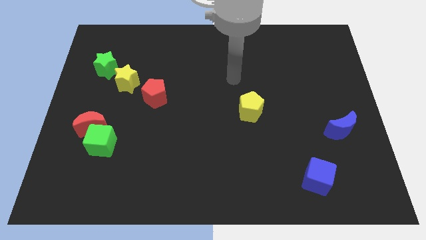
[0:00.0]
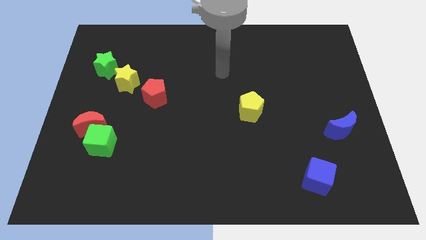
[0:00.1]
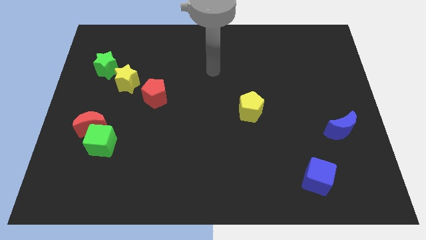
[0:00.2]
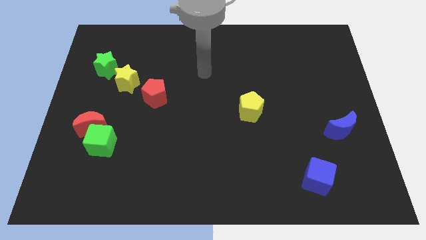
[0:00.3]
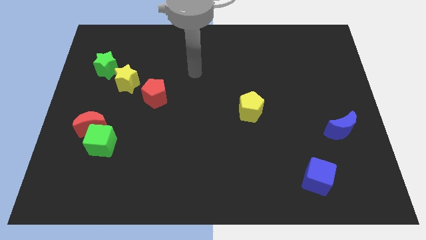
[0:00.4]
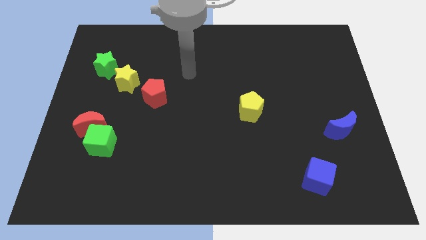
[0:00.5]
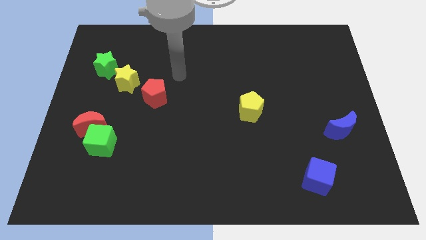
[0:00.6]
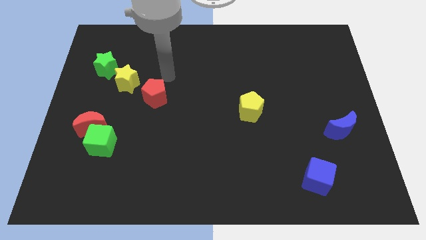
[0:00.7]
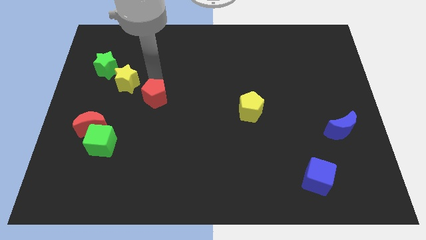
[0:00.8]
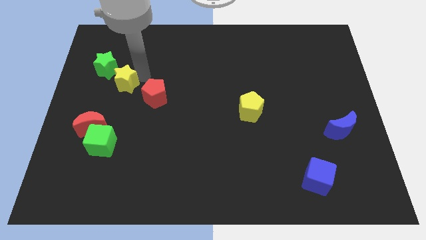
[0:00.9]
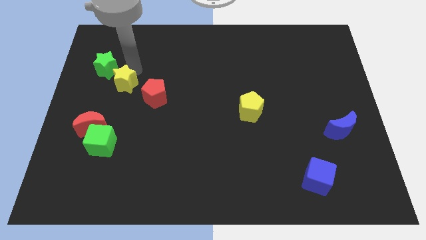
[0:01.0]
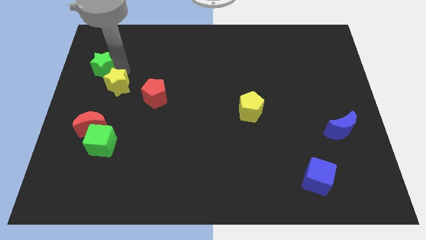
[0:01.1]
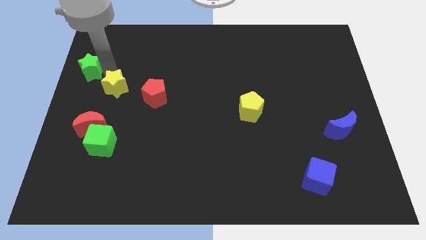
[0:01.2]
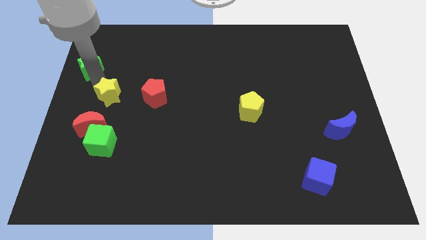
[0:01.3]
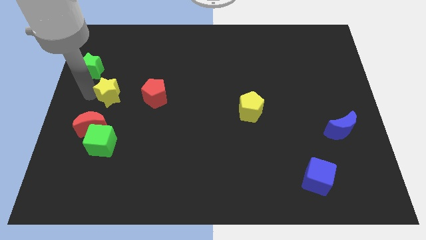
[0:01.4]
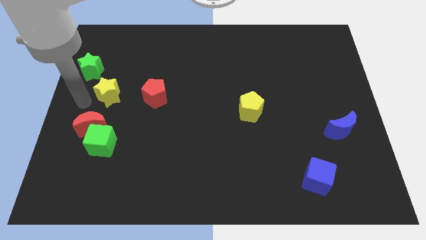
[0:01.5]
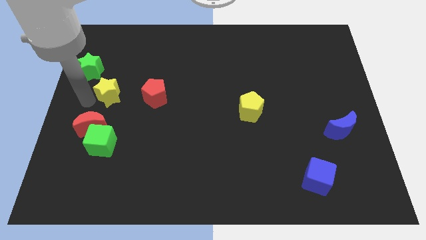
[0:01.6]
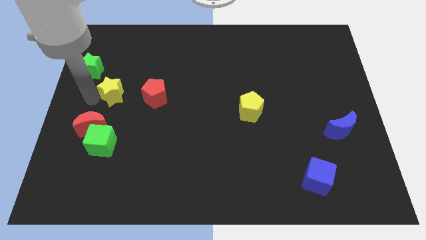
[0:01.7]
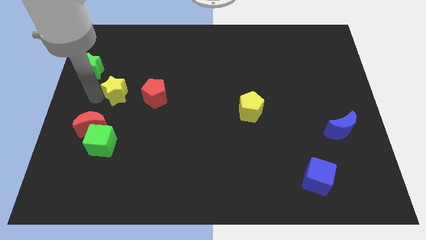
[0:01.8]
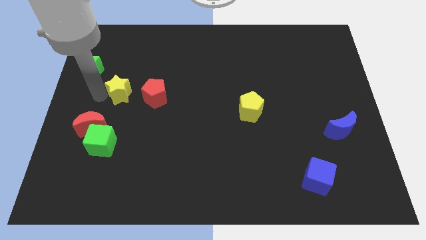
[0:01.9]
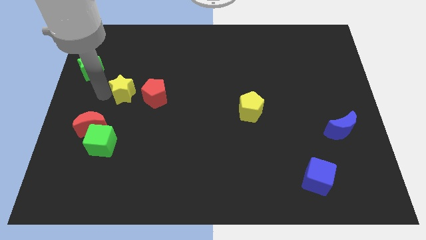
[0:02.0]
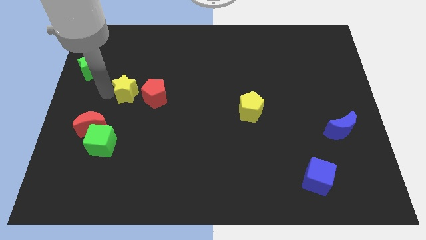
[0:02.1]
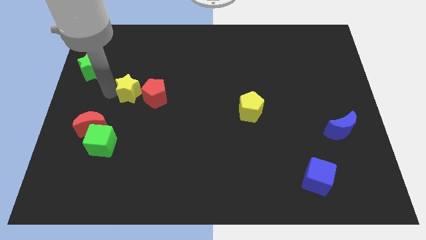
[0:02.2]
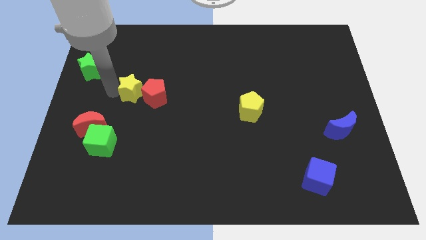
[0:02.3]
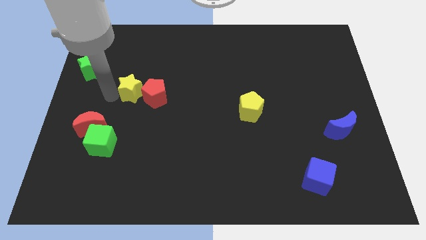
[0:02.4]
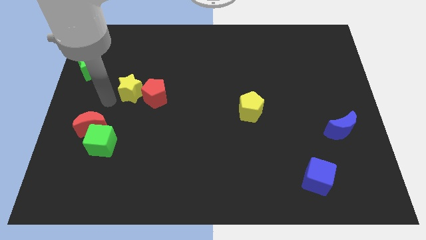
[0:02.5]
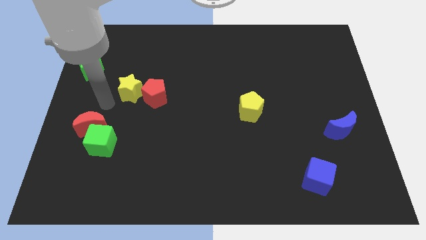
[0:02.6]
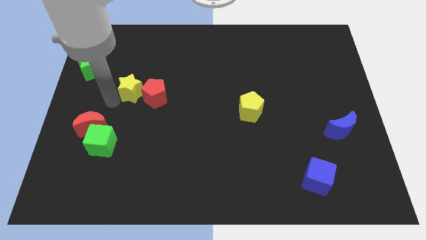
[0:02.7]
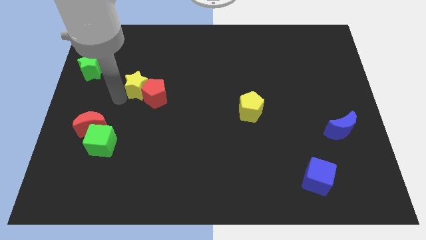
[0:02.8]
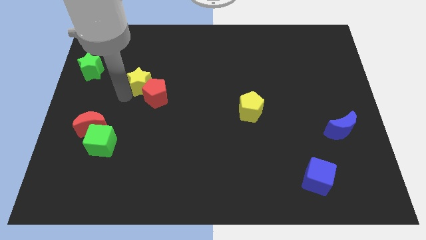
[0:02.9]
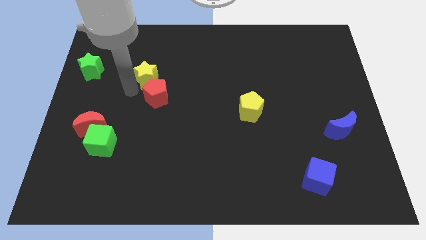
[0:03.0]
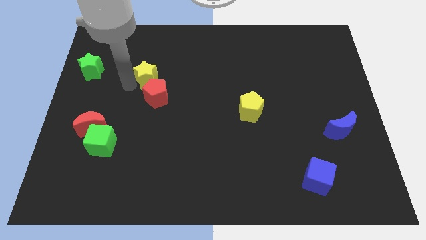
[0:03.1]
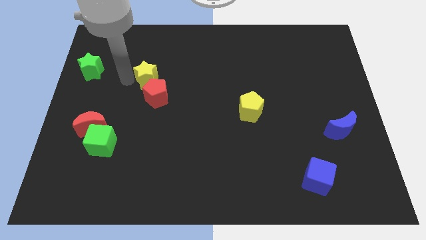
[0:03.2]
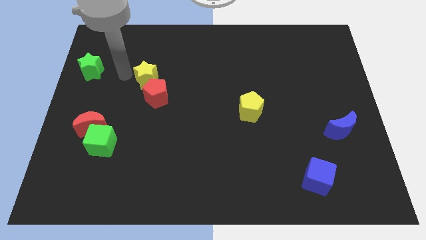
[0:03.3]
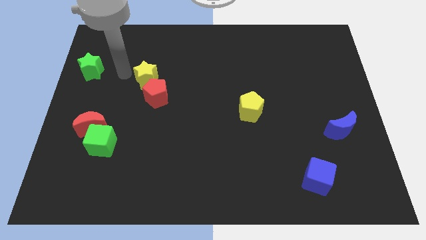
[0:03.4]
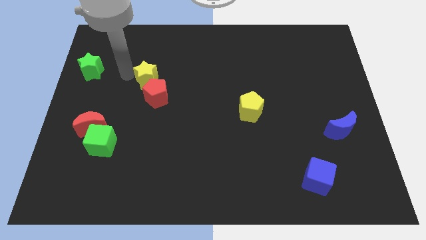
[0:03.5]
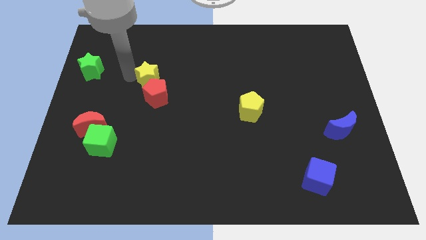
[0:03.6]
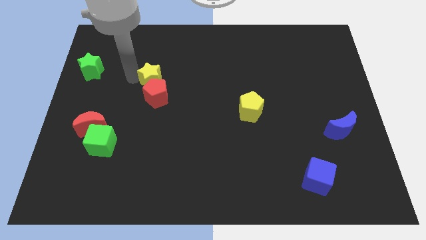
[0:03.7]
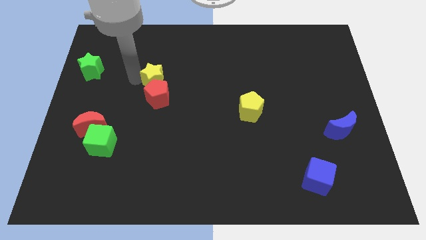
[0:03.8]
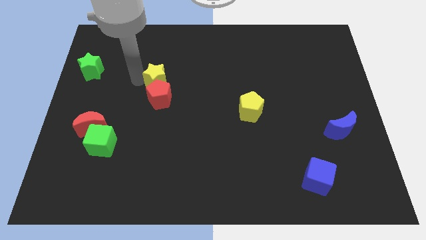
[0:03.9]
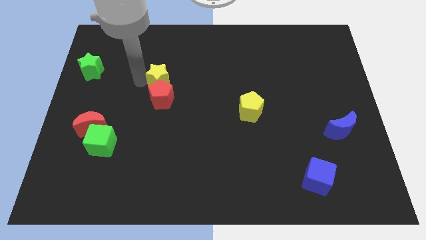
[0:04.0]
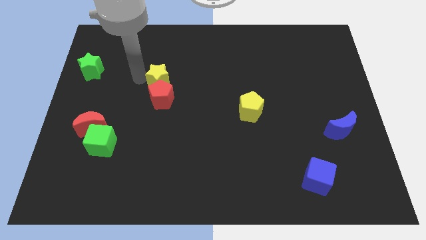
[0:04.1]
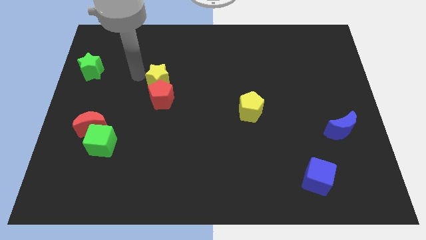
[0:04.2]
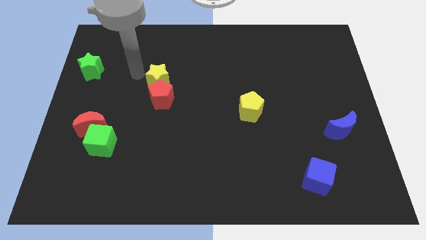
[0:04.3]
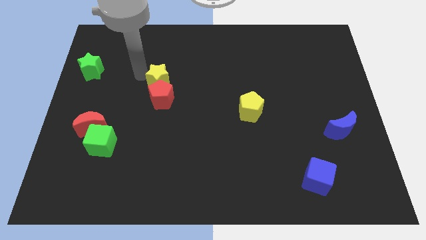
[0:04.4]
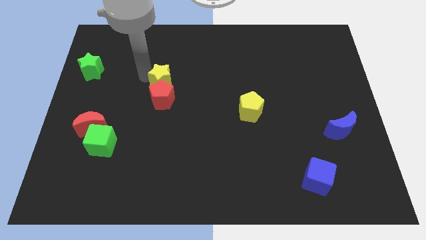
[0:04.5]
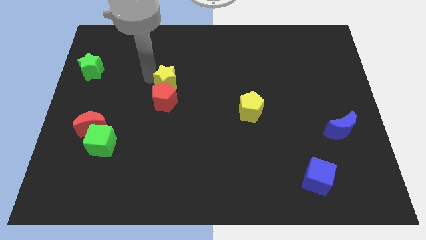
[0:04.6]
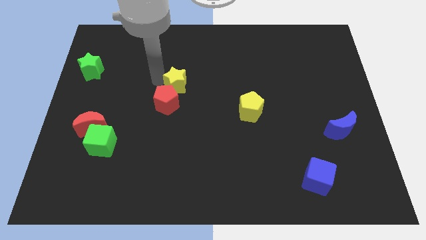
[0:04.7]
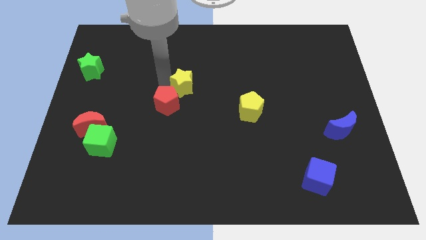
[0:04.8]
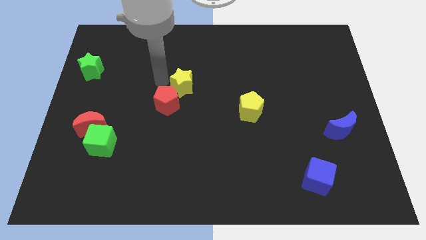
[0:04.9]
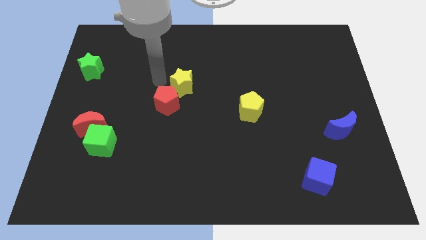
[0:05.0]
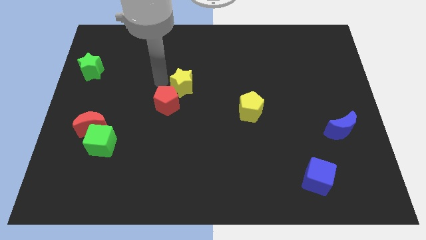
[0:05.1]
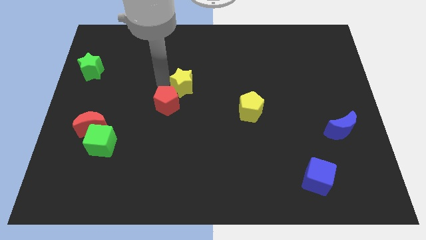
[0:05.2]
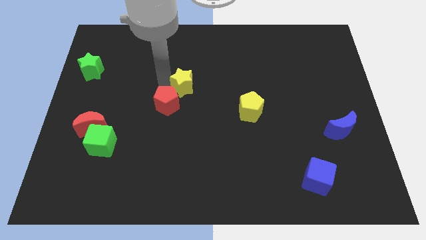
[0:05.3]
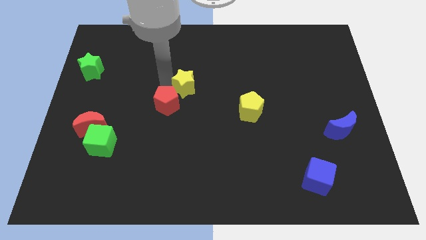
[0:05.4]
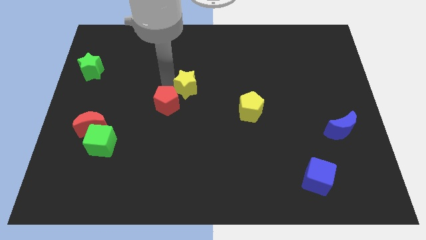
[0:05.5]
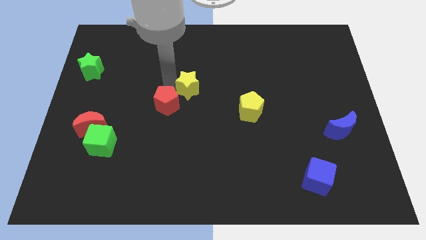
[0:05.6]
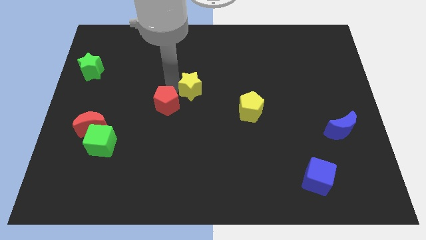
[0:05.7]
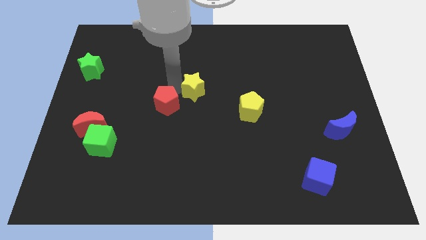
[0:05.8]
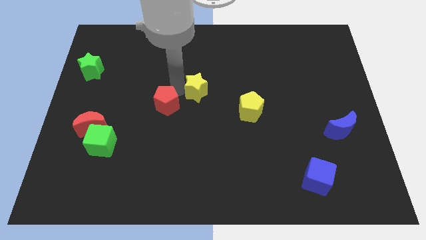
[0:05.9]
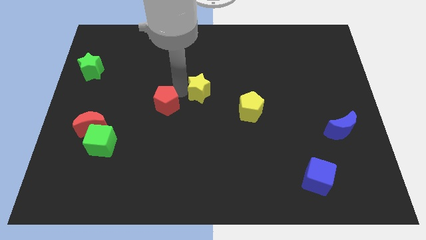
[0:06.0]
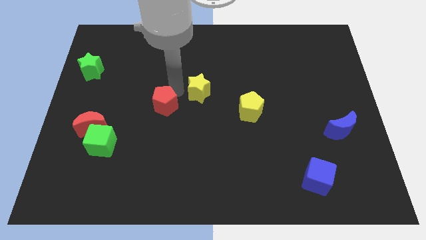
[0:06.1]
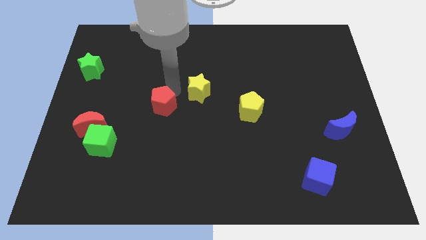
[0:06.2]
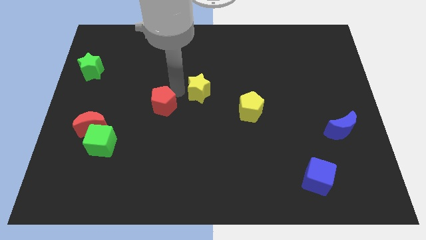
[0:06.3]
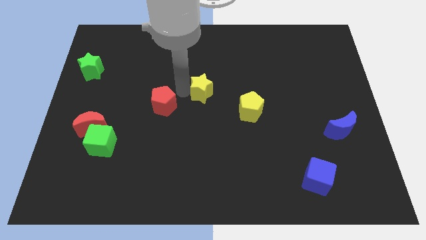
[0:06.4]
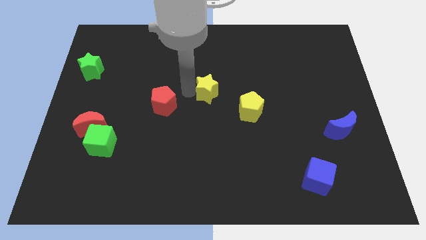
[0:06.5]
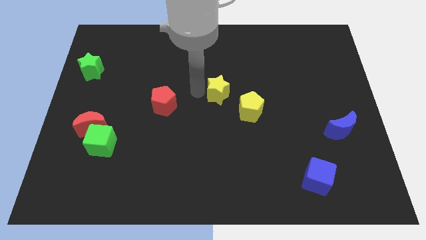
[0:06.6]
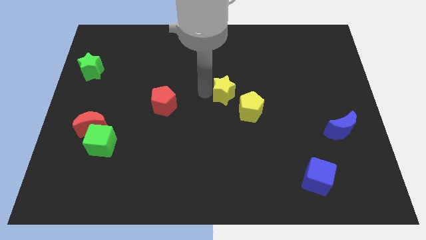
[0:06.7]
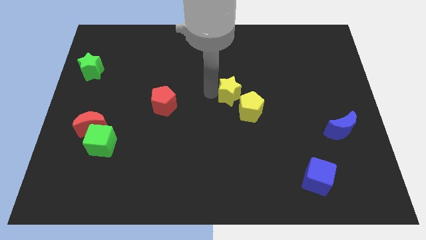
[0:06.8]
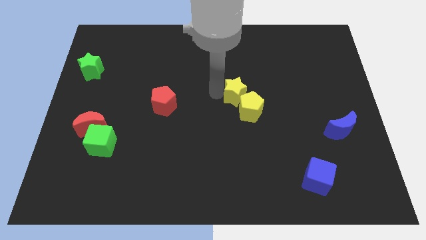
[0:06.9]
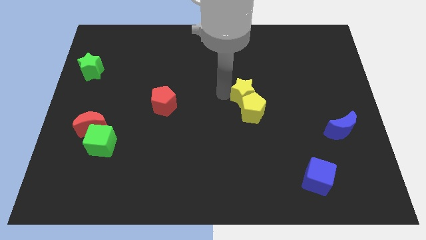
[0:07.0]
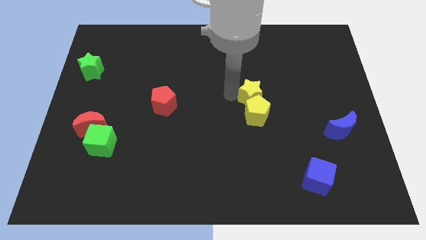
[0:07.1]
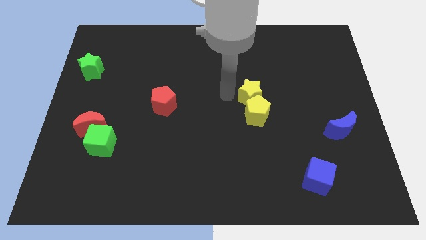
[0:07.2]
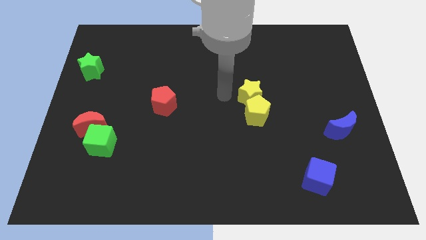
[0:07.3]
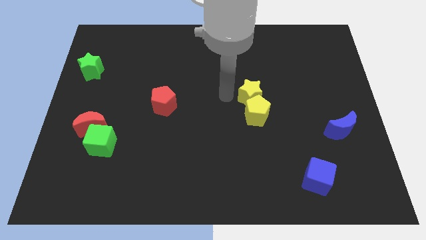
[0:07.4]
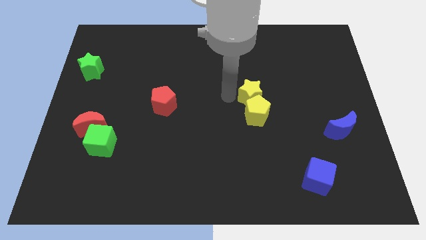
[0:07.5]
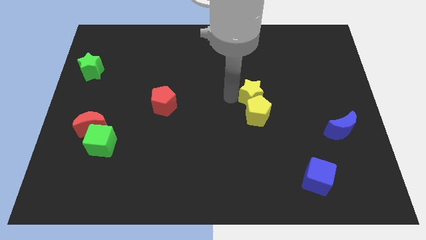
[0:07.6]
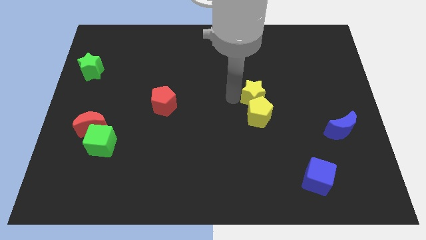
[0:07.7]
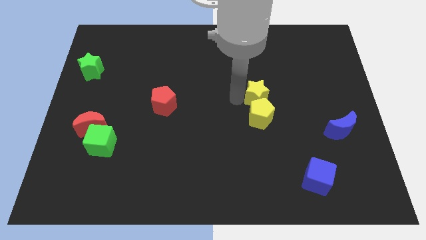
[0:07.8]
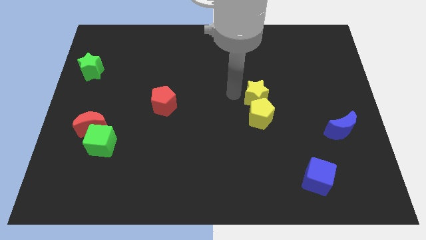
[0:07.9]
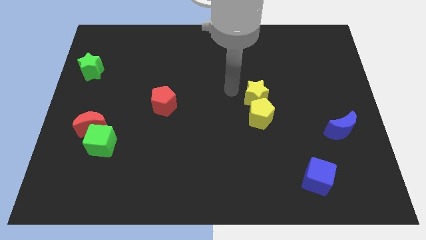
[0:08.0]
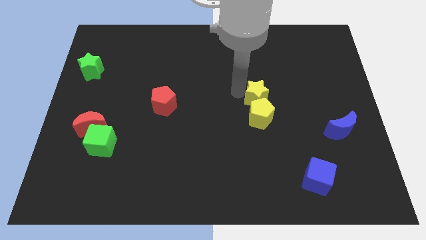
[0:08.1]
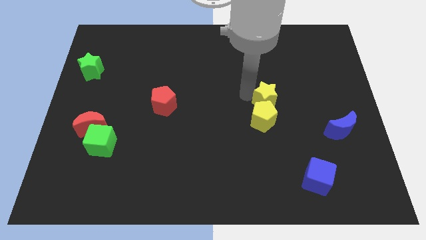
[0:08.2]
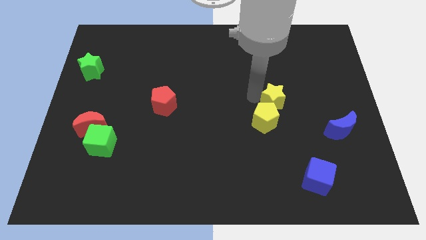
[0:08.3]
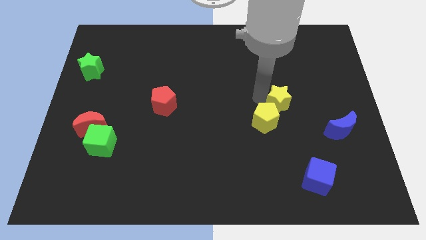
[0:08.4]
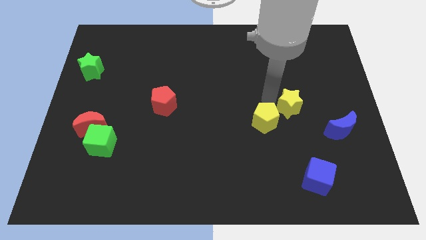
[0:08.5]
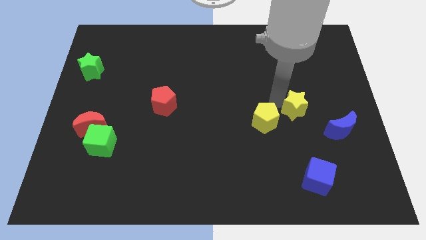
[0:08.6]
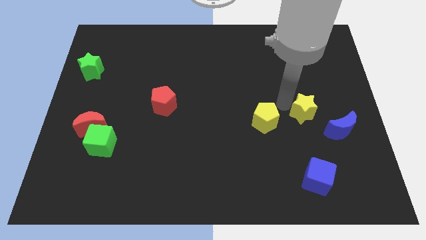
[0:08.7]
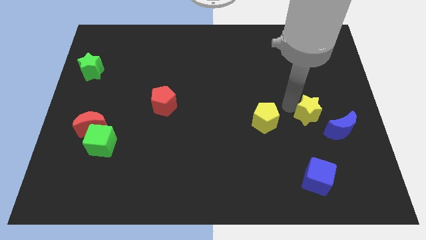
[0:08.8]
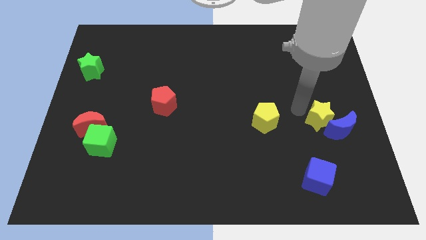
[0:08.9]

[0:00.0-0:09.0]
move the yellow star close to the blue moon
